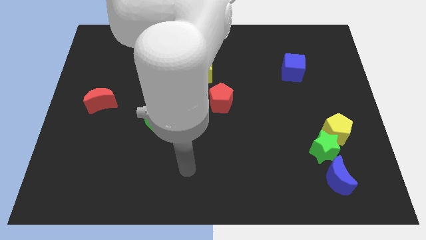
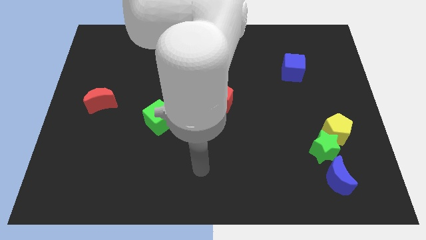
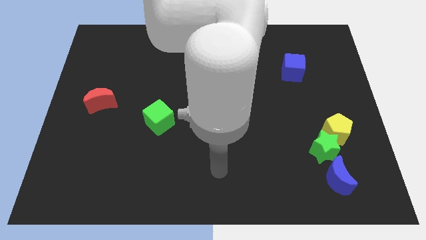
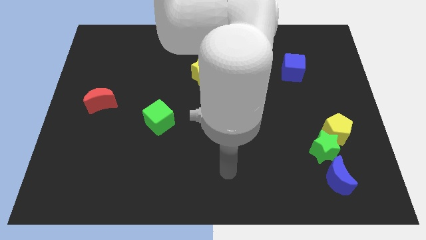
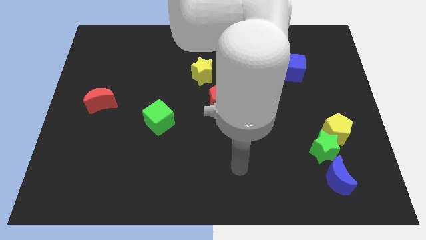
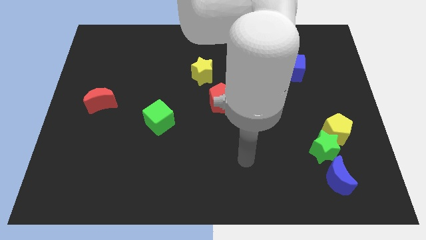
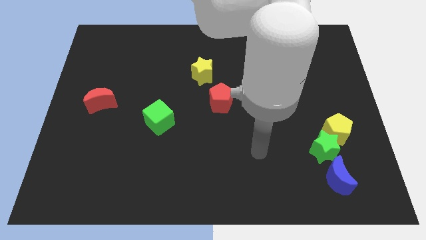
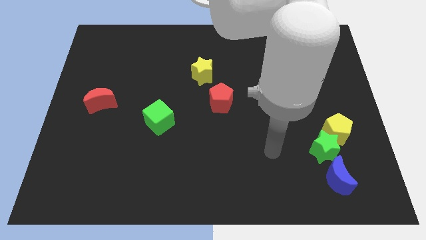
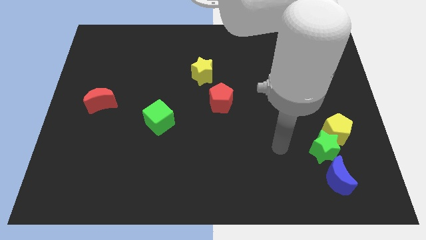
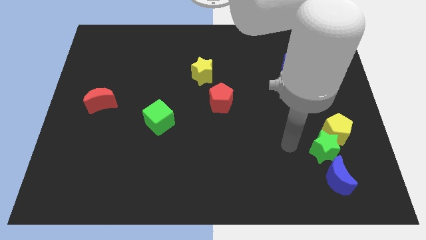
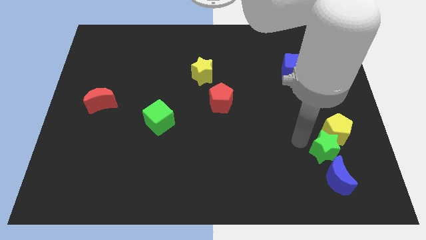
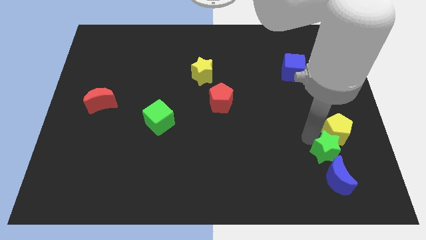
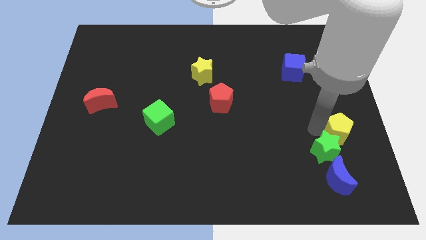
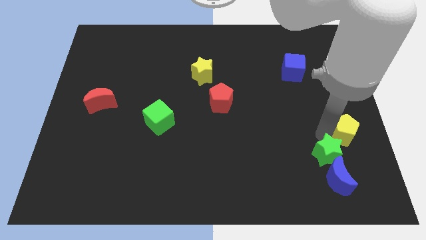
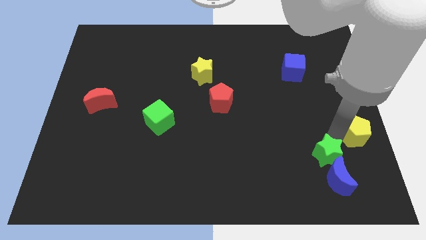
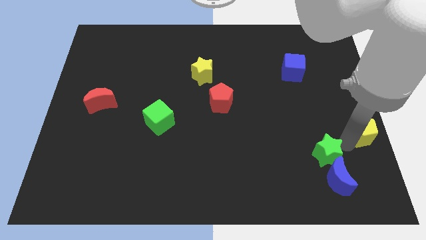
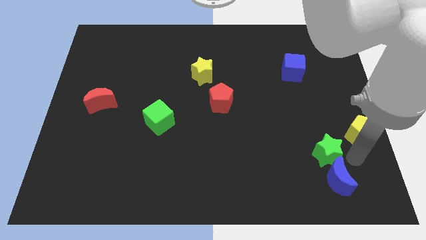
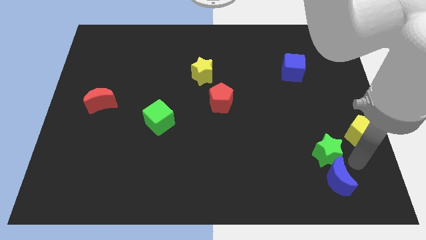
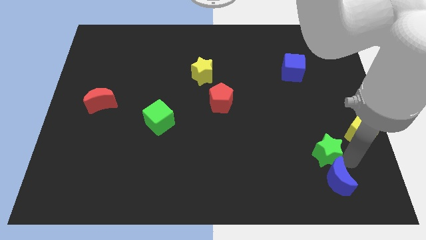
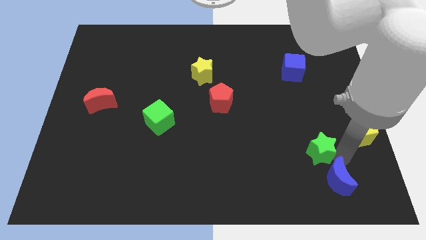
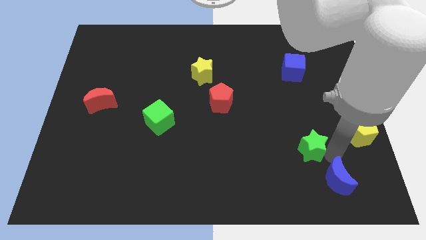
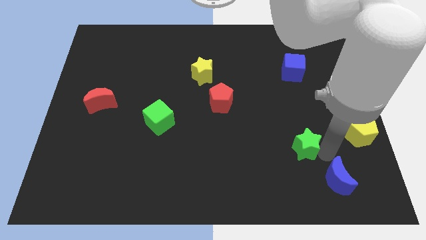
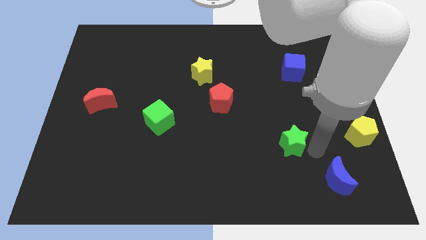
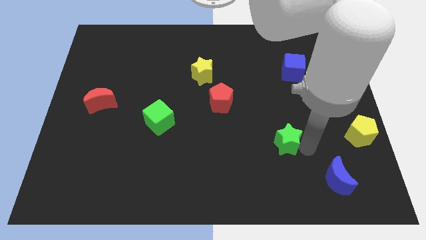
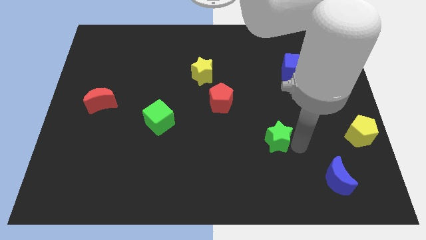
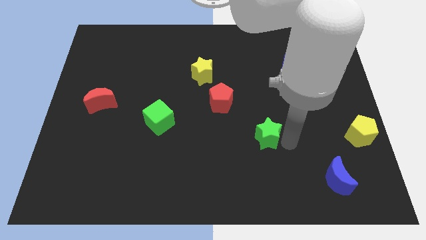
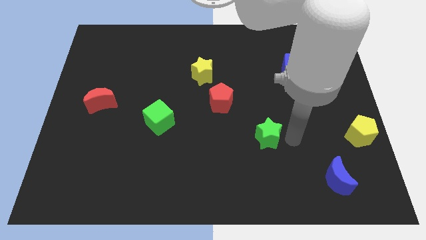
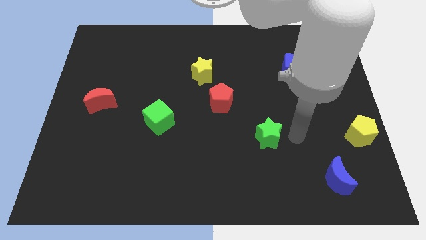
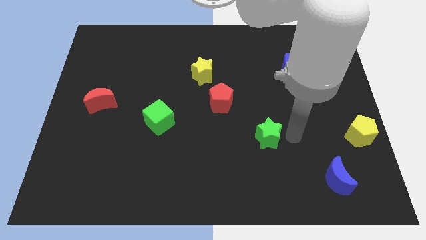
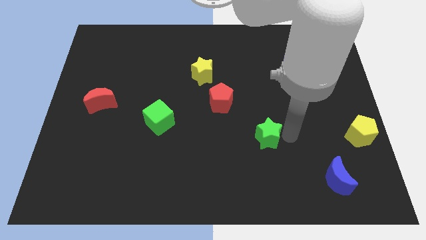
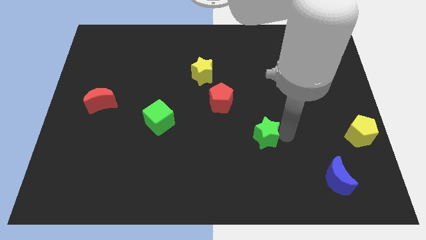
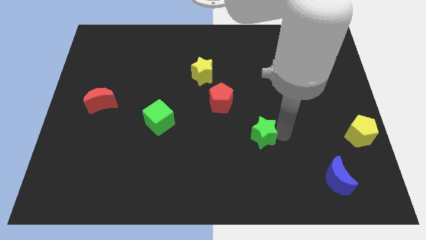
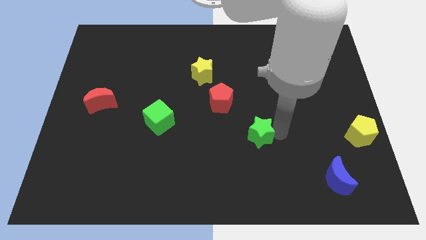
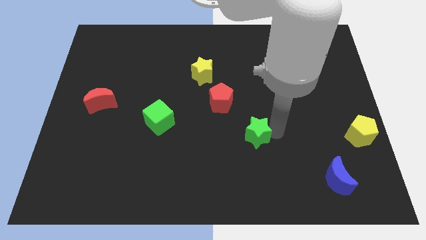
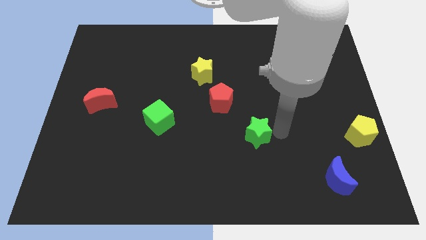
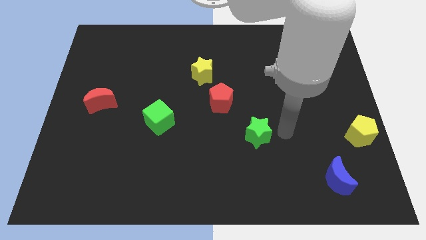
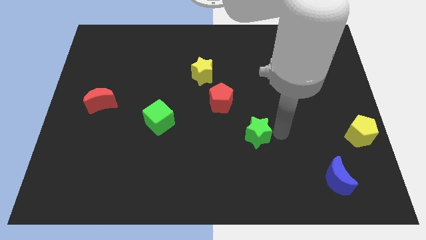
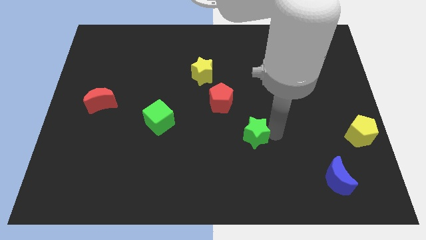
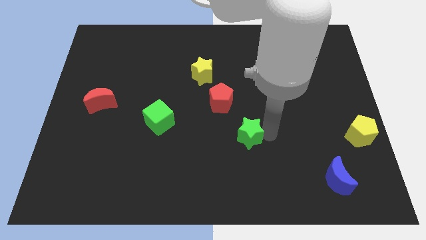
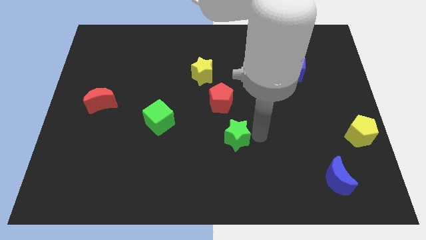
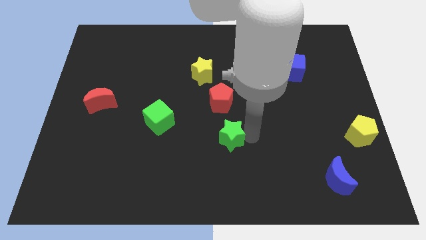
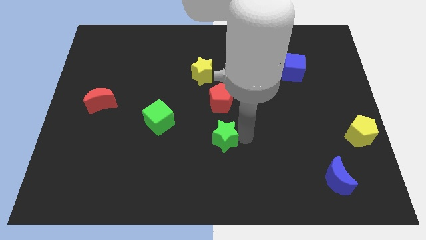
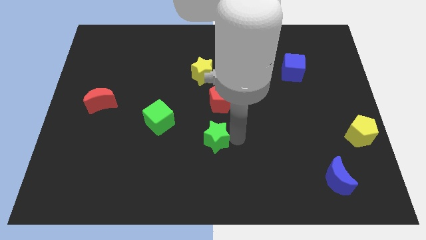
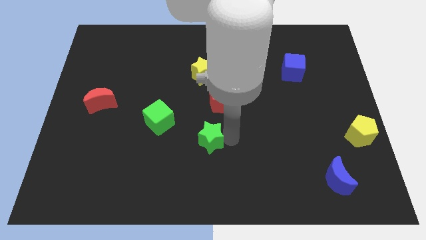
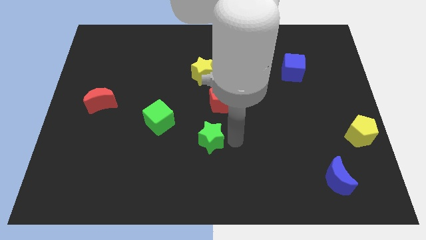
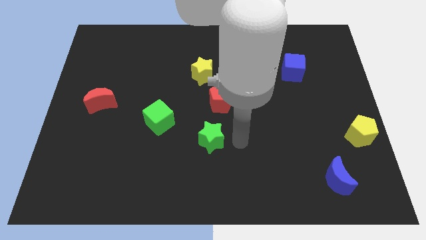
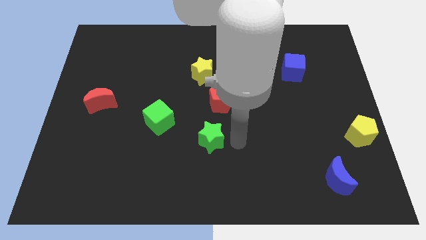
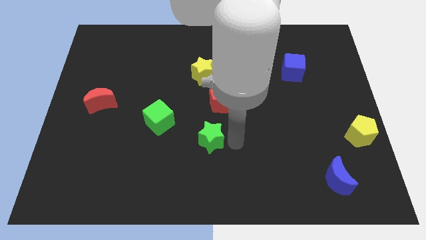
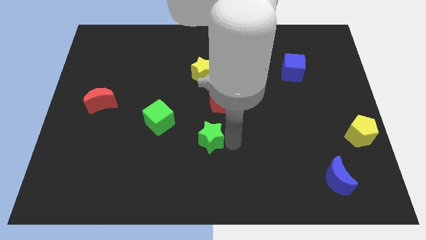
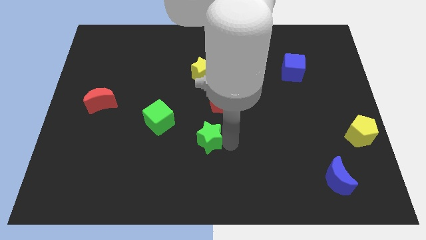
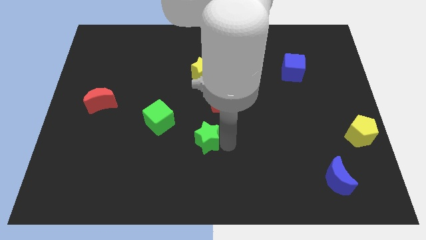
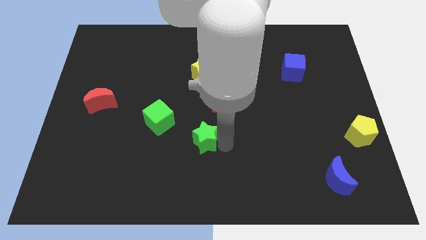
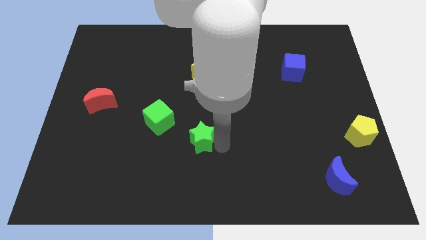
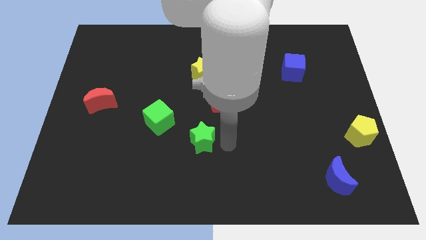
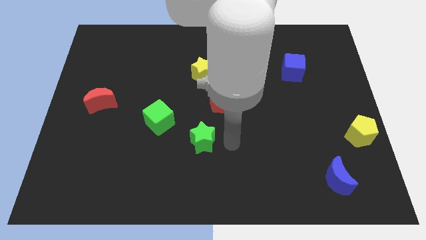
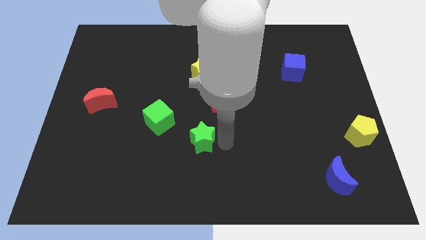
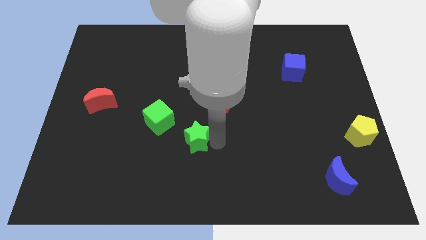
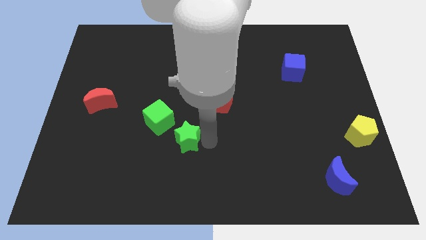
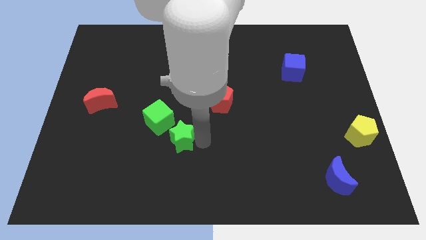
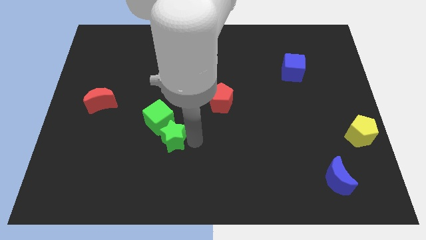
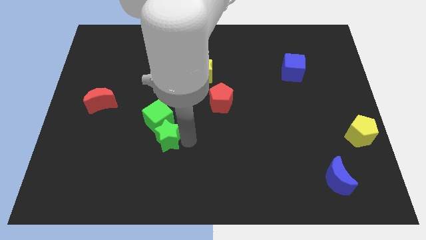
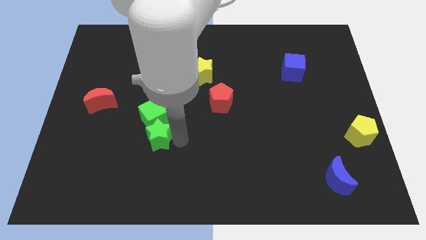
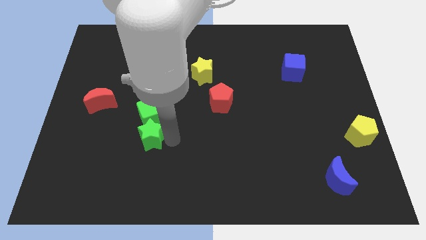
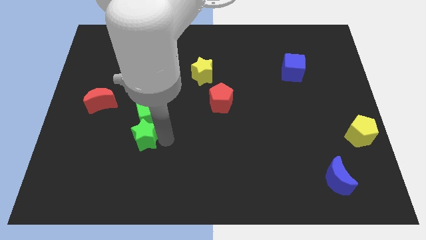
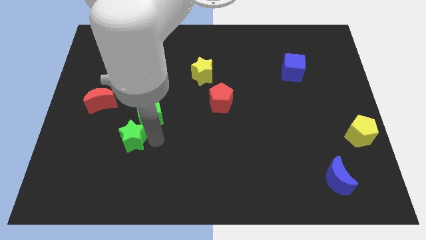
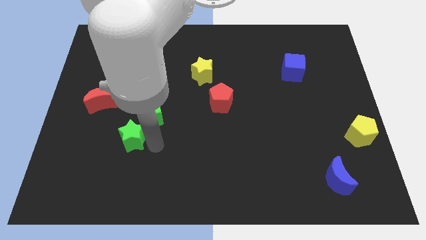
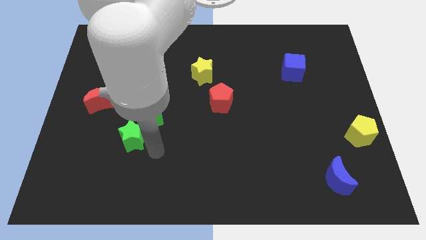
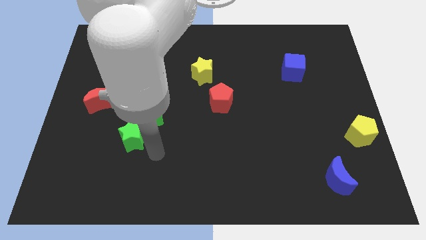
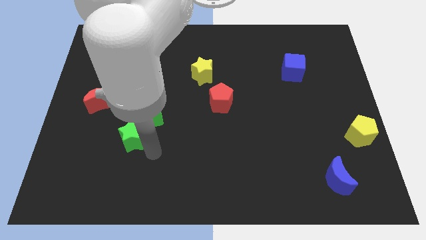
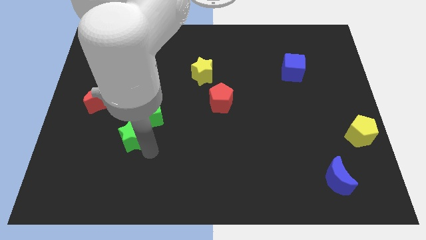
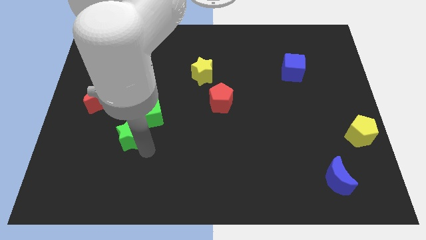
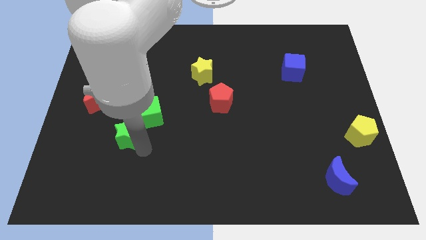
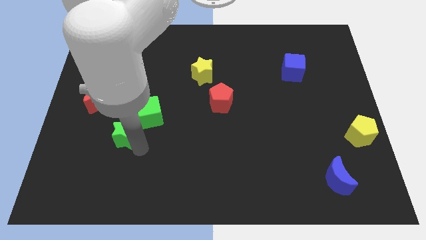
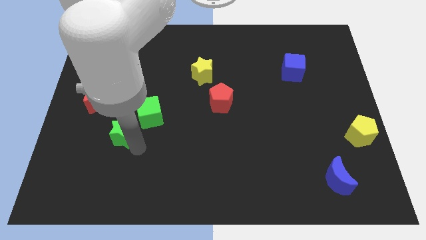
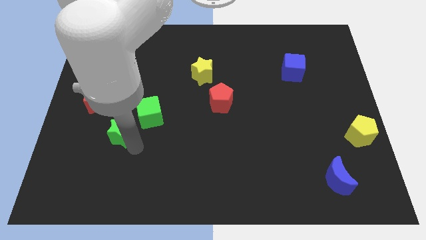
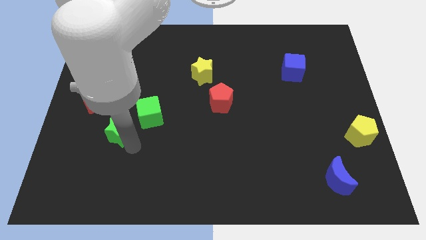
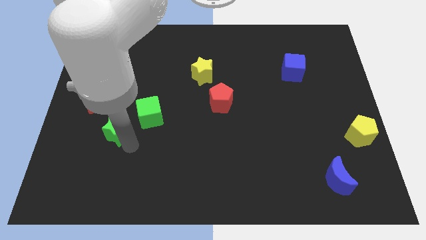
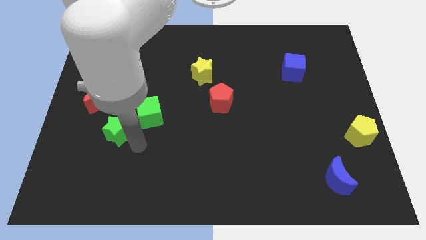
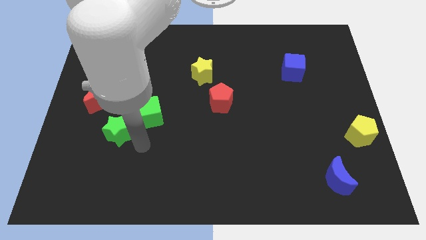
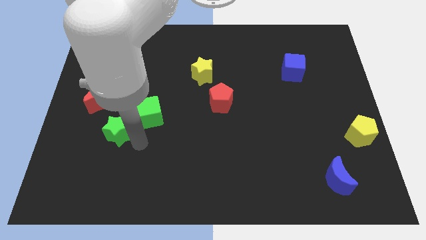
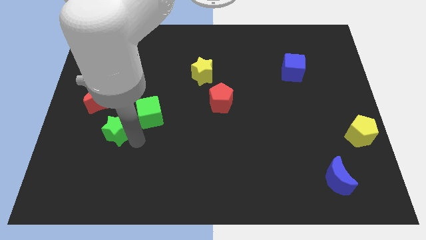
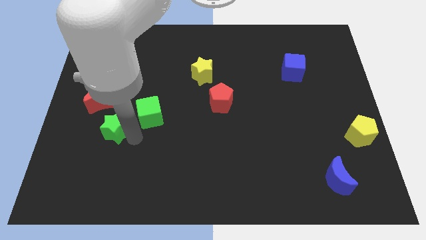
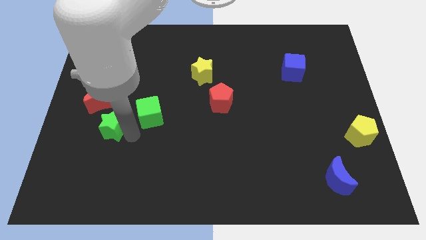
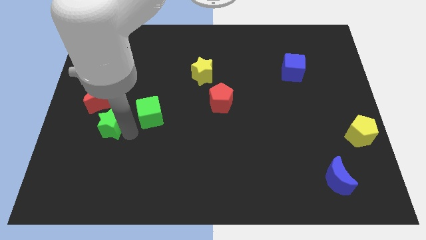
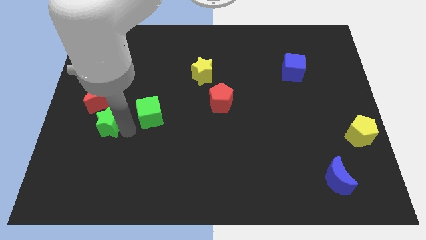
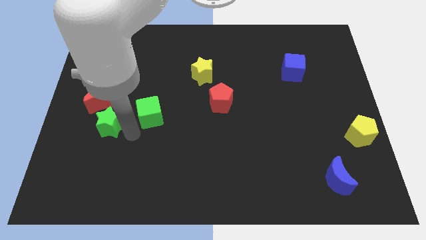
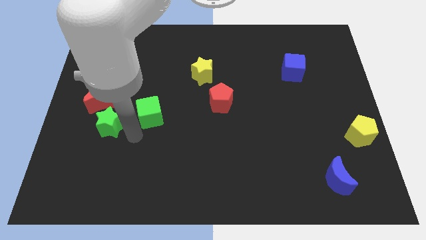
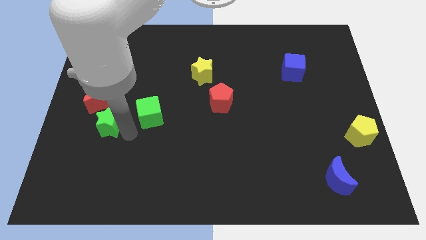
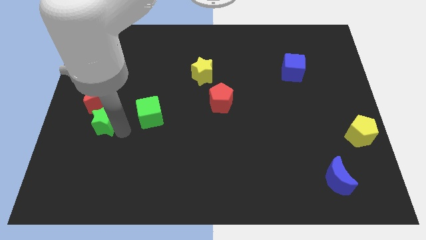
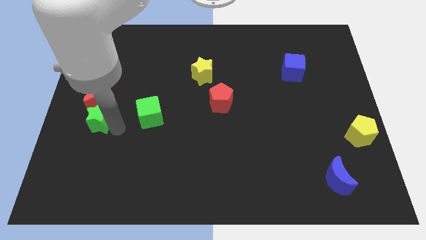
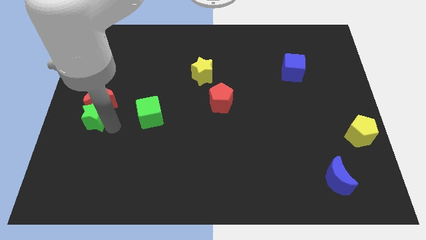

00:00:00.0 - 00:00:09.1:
push the green star to the left side of the board
